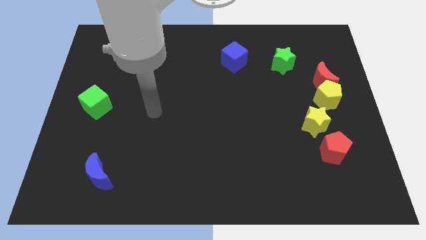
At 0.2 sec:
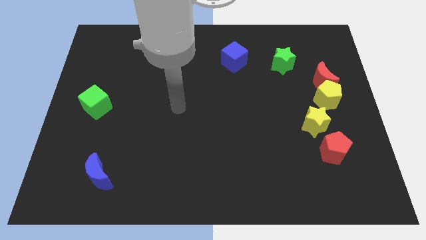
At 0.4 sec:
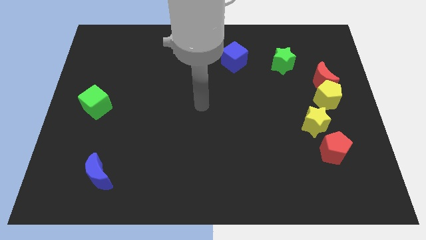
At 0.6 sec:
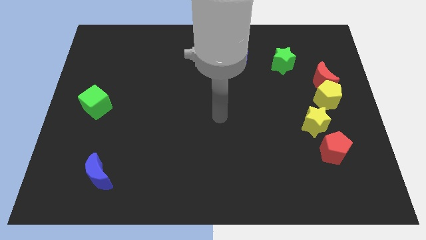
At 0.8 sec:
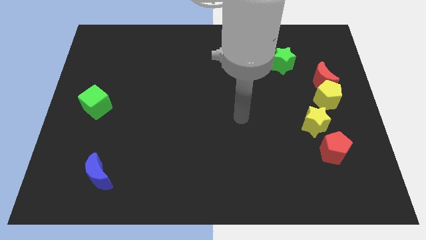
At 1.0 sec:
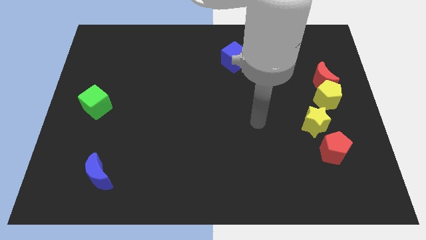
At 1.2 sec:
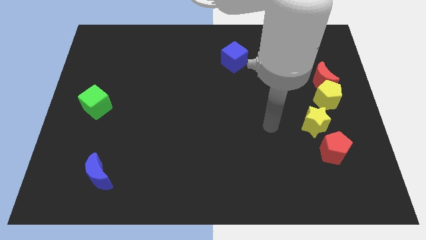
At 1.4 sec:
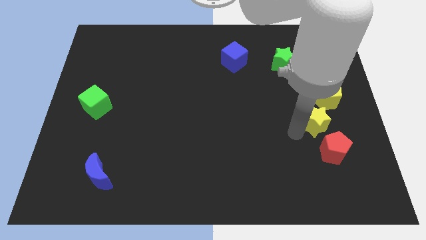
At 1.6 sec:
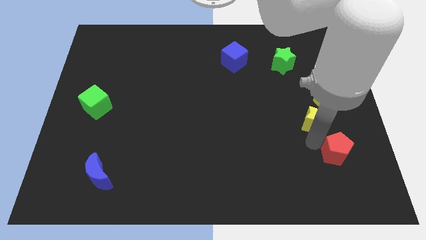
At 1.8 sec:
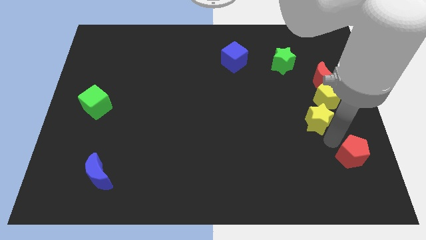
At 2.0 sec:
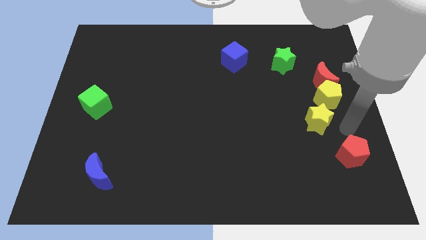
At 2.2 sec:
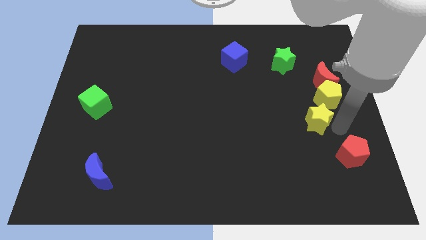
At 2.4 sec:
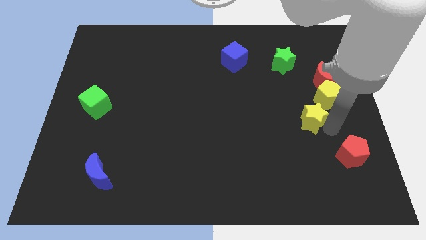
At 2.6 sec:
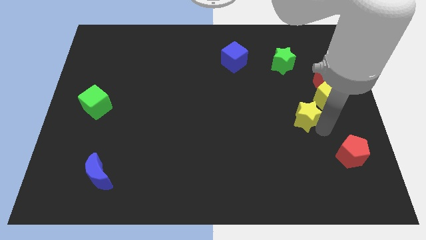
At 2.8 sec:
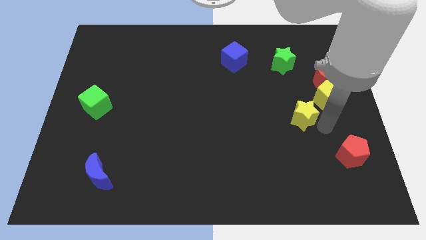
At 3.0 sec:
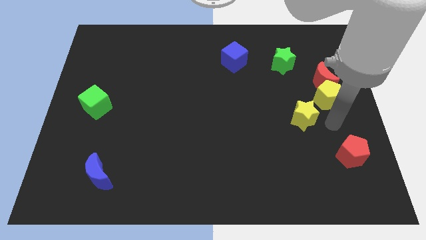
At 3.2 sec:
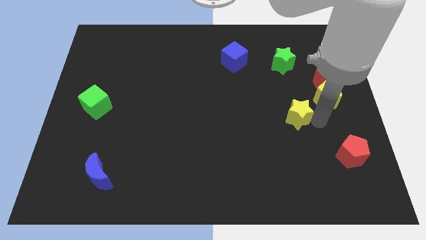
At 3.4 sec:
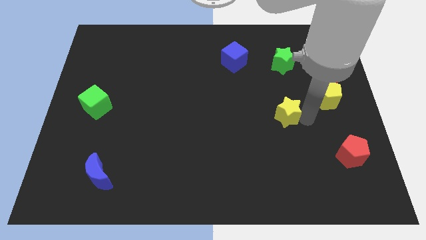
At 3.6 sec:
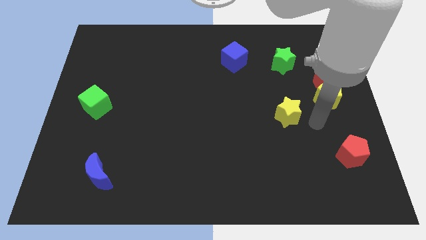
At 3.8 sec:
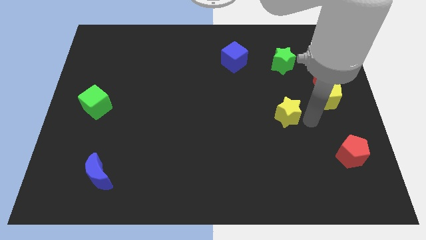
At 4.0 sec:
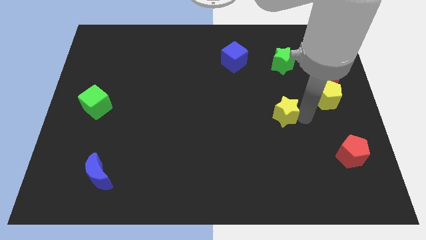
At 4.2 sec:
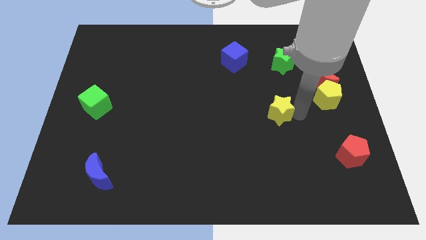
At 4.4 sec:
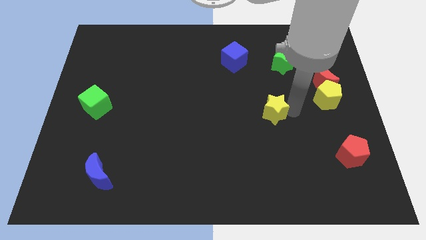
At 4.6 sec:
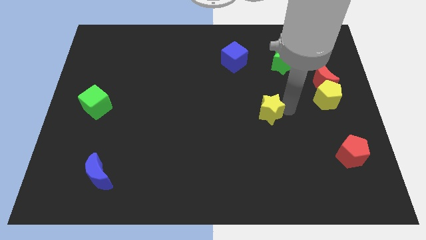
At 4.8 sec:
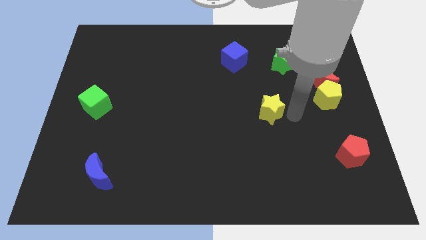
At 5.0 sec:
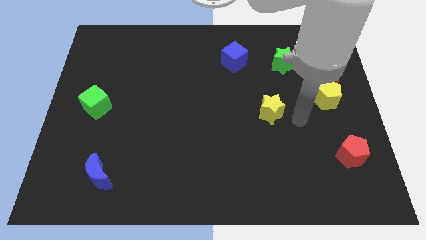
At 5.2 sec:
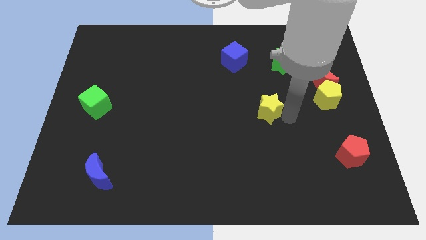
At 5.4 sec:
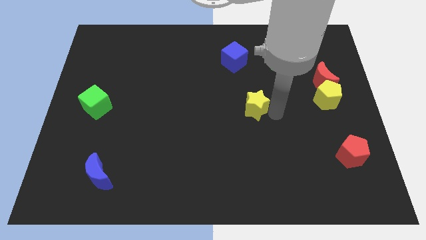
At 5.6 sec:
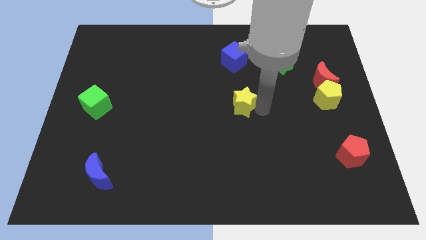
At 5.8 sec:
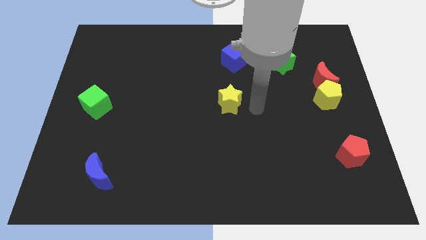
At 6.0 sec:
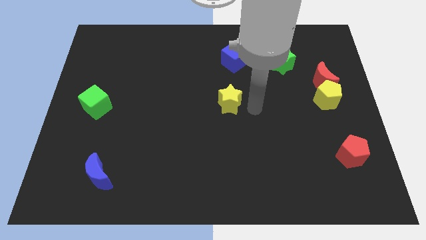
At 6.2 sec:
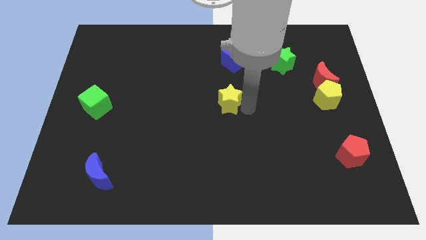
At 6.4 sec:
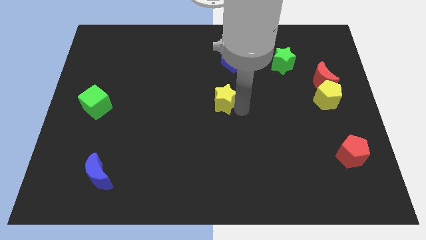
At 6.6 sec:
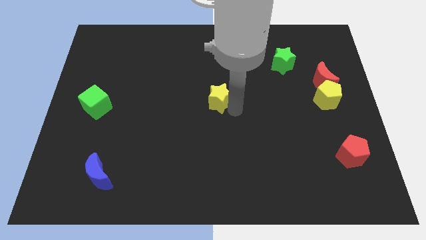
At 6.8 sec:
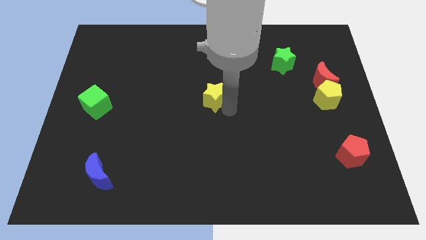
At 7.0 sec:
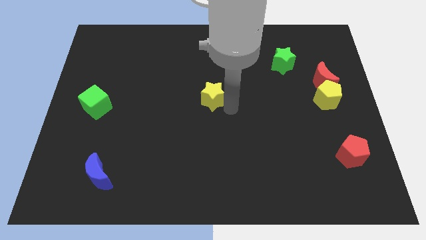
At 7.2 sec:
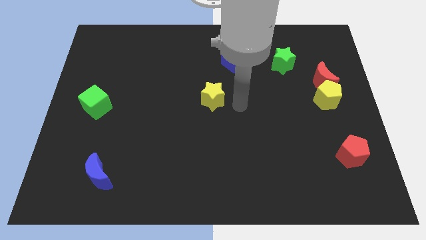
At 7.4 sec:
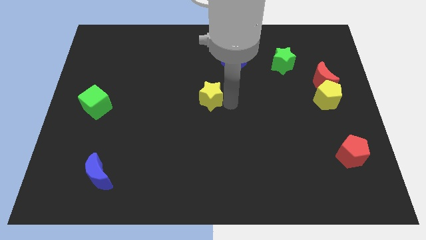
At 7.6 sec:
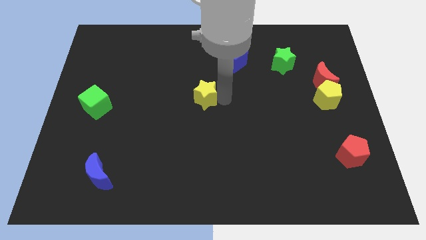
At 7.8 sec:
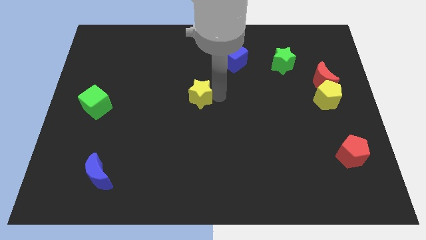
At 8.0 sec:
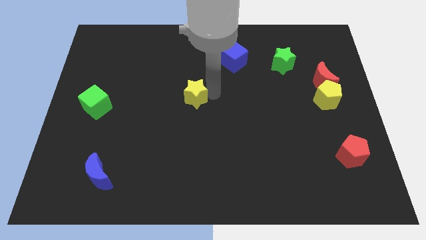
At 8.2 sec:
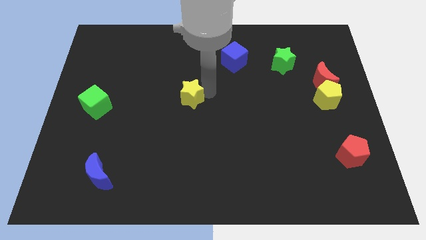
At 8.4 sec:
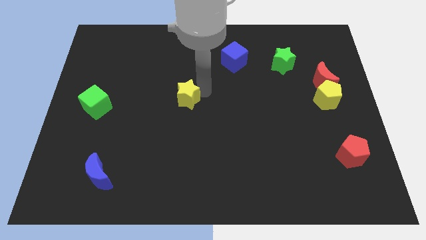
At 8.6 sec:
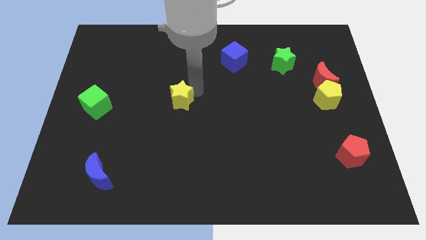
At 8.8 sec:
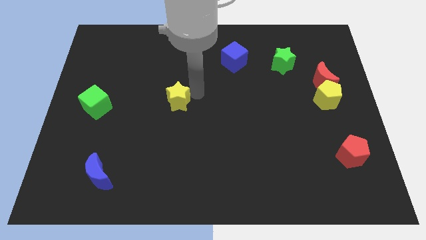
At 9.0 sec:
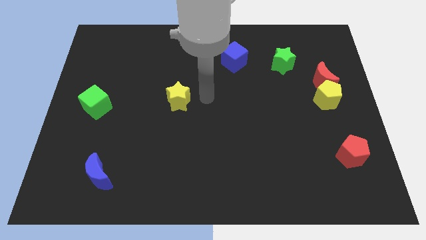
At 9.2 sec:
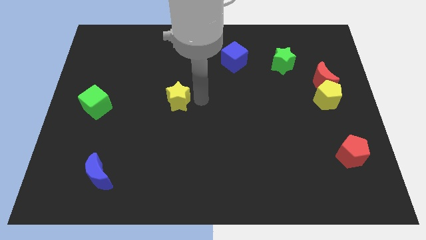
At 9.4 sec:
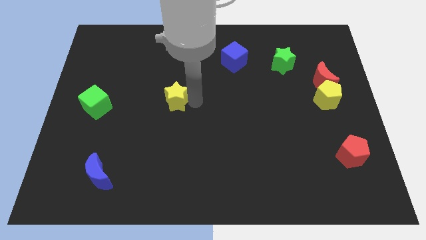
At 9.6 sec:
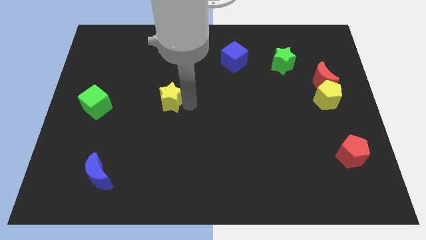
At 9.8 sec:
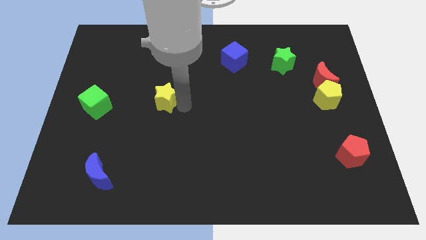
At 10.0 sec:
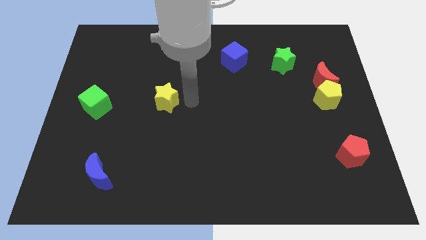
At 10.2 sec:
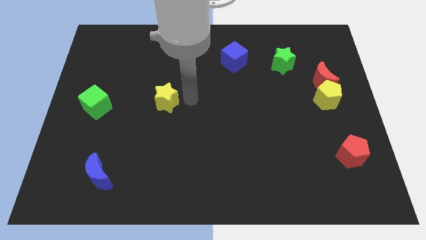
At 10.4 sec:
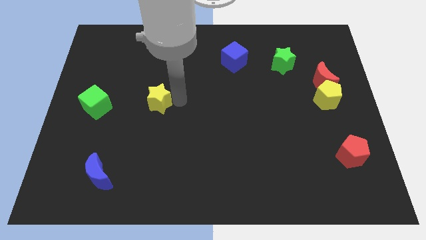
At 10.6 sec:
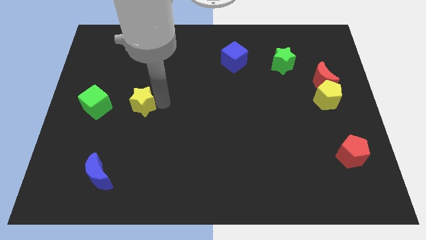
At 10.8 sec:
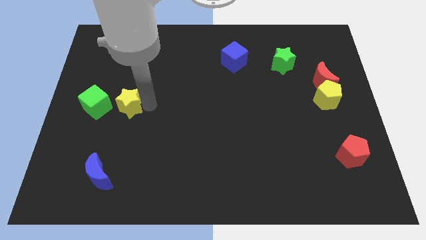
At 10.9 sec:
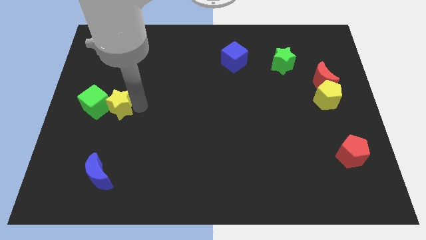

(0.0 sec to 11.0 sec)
push the yellow star close to the green cube

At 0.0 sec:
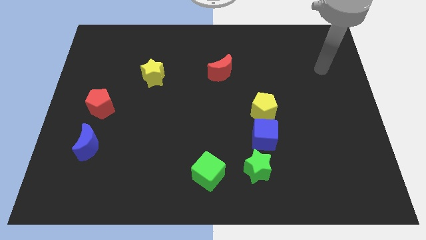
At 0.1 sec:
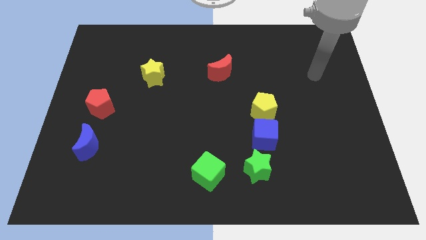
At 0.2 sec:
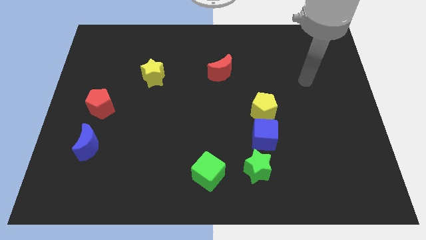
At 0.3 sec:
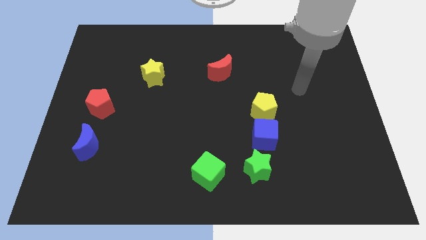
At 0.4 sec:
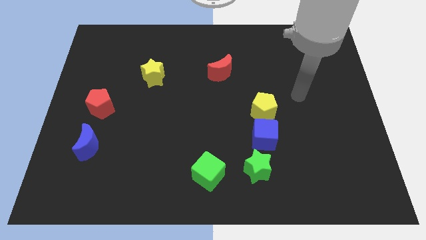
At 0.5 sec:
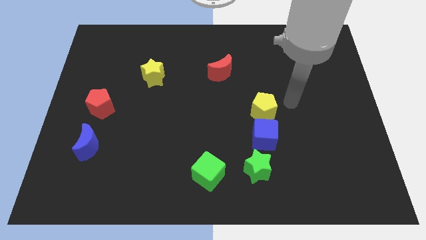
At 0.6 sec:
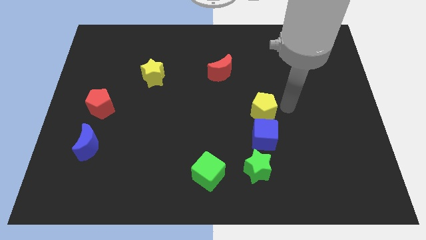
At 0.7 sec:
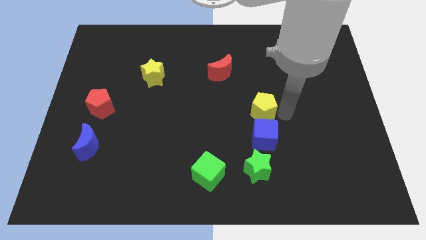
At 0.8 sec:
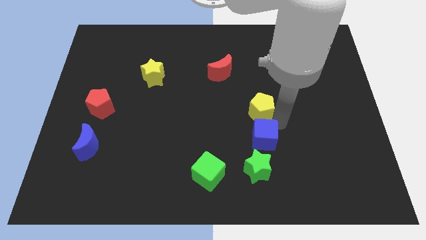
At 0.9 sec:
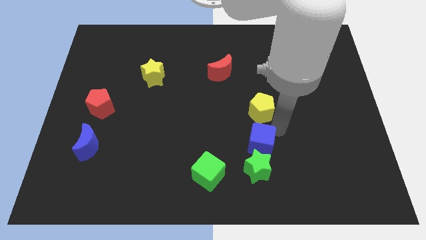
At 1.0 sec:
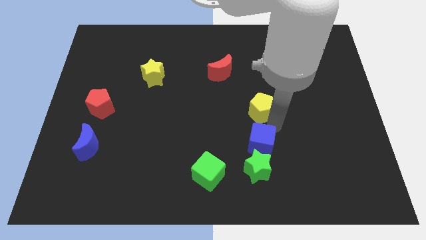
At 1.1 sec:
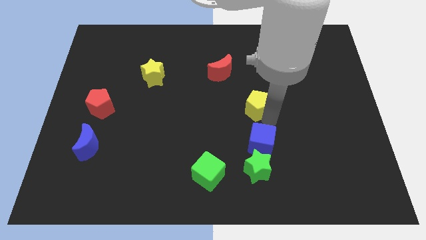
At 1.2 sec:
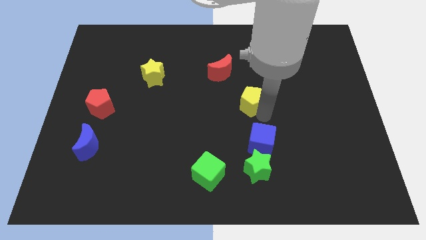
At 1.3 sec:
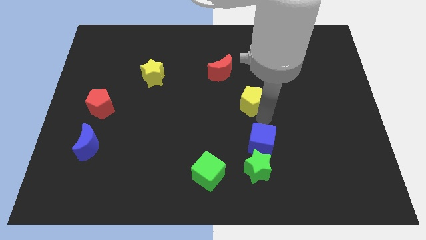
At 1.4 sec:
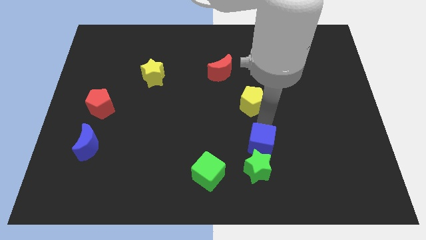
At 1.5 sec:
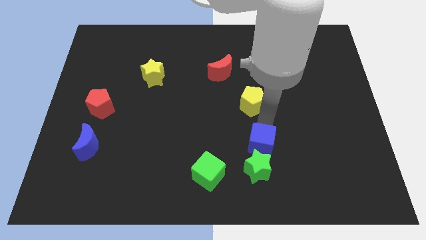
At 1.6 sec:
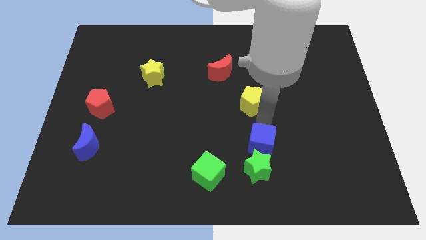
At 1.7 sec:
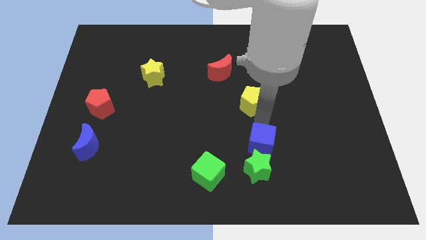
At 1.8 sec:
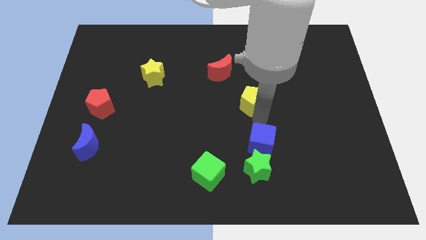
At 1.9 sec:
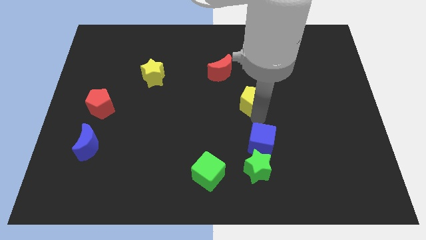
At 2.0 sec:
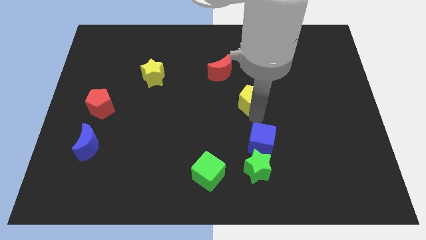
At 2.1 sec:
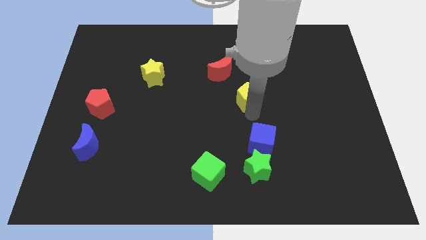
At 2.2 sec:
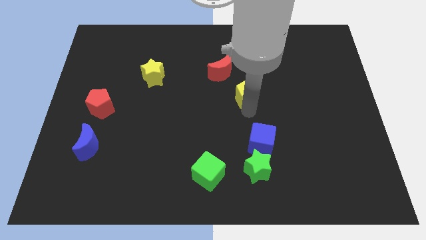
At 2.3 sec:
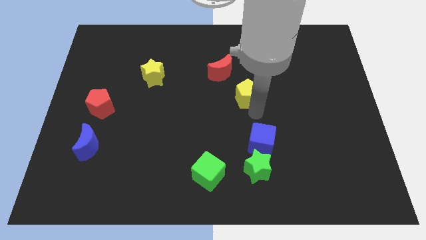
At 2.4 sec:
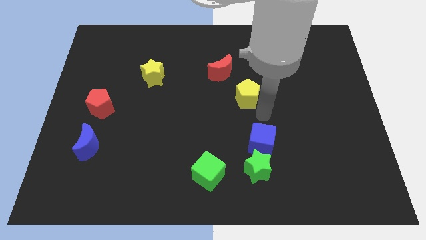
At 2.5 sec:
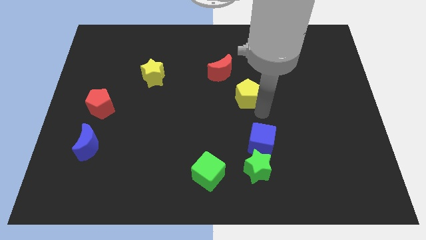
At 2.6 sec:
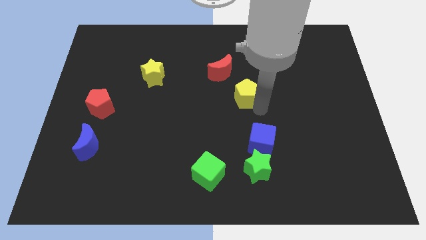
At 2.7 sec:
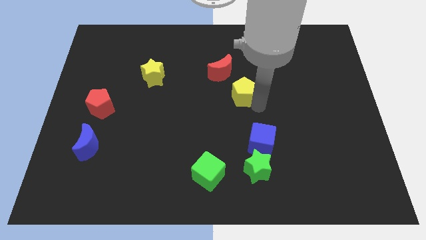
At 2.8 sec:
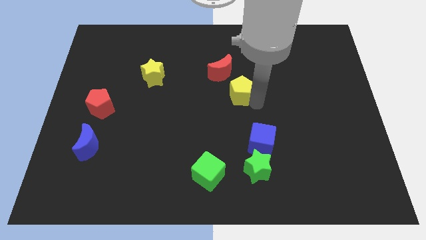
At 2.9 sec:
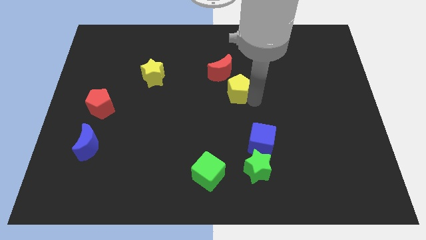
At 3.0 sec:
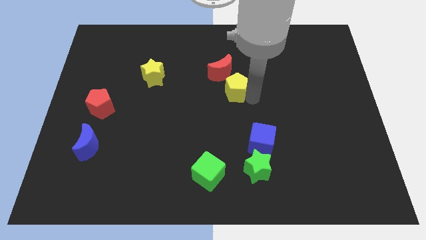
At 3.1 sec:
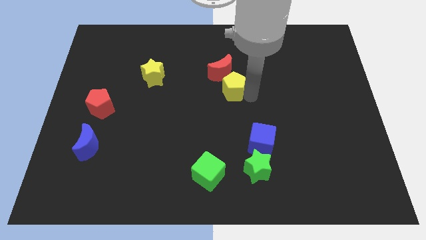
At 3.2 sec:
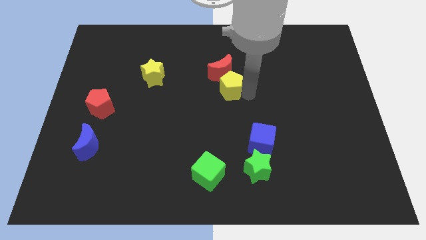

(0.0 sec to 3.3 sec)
move the yellow pentagon next to the red moon
